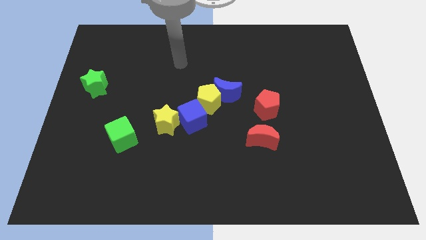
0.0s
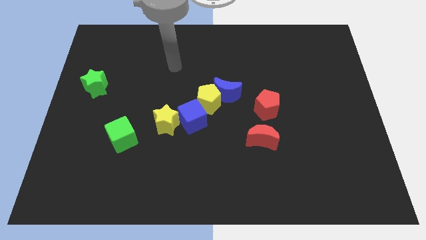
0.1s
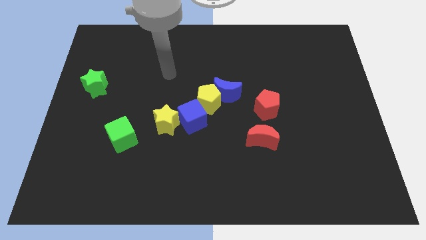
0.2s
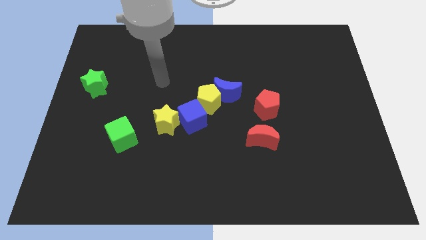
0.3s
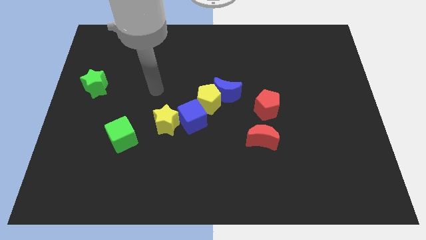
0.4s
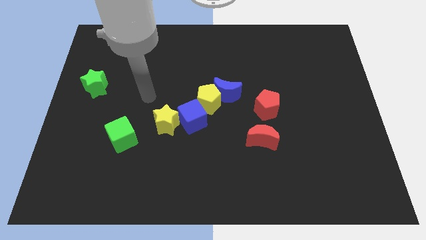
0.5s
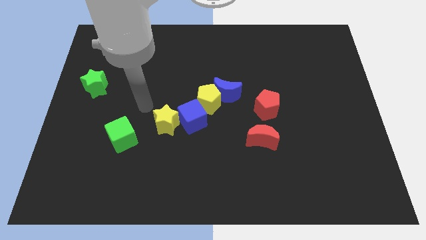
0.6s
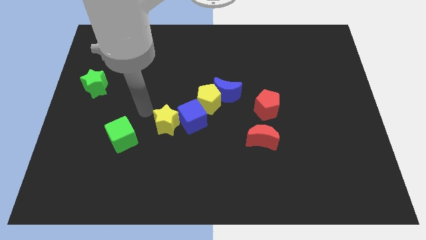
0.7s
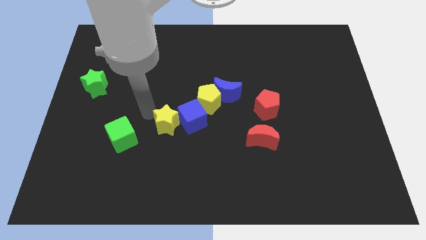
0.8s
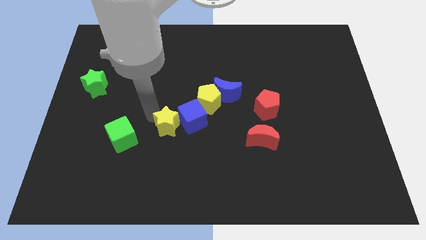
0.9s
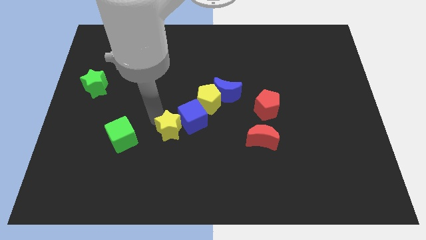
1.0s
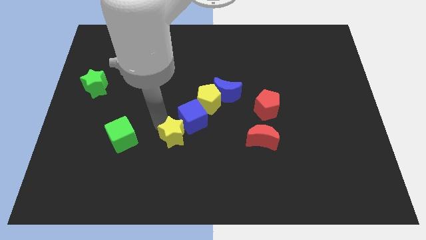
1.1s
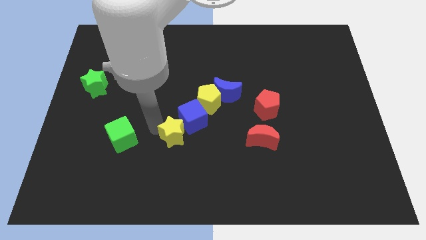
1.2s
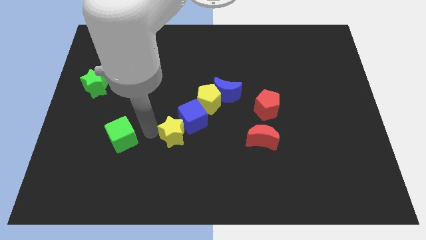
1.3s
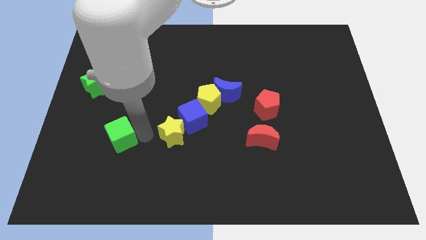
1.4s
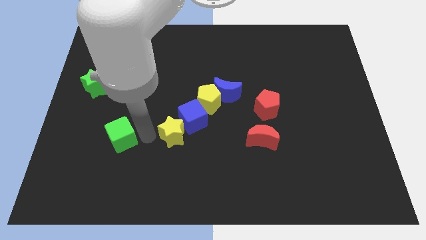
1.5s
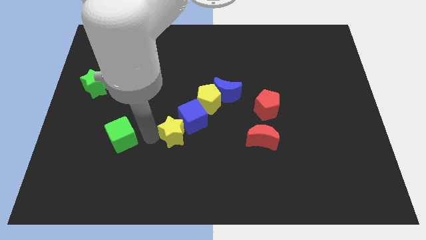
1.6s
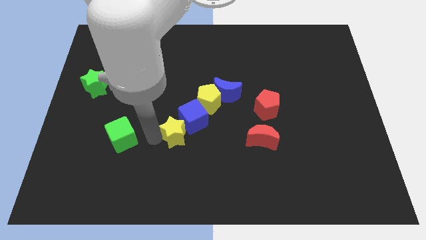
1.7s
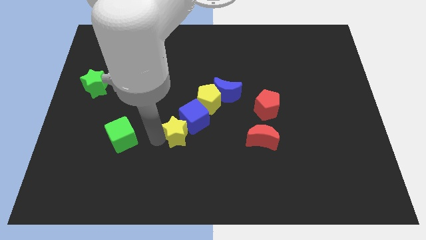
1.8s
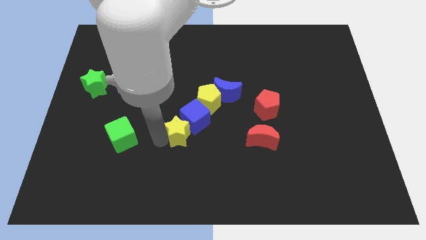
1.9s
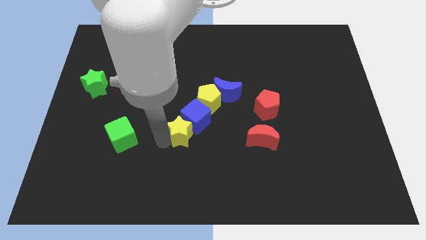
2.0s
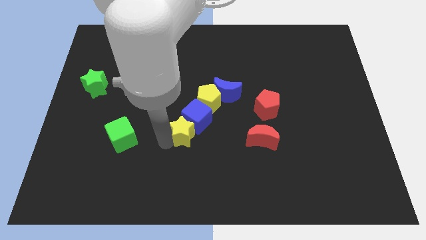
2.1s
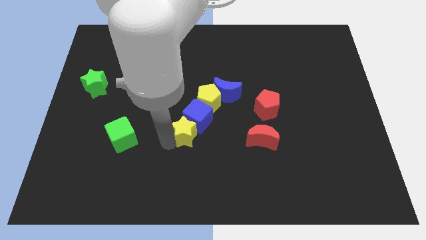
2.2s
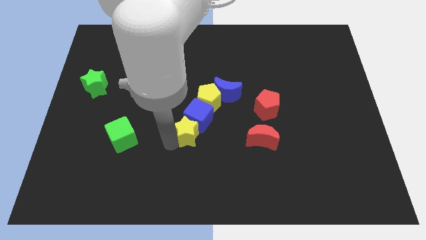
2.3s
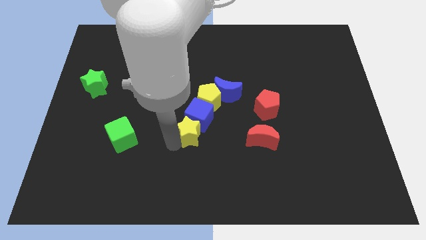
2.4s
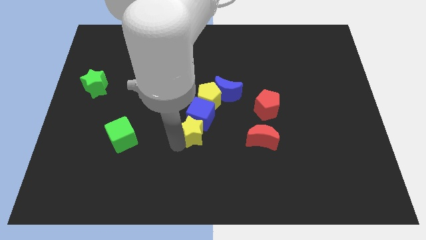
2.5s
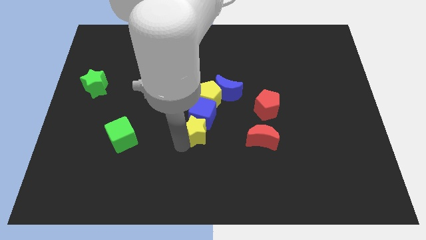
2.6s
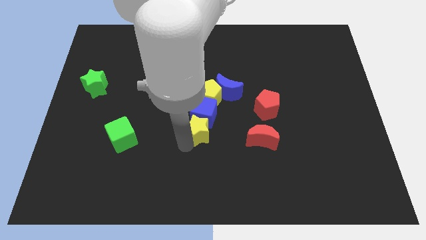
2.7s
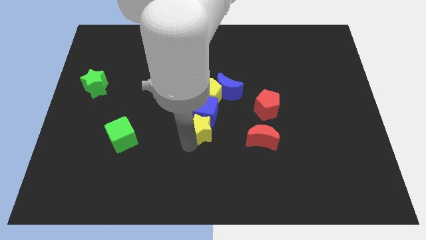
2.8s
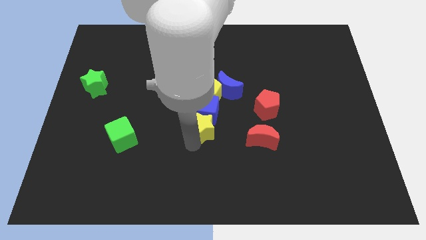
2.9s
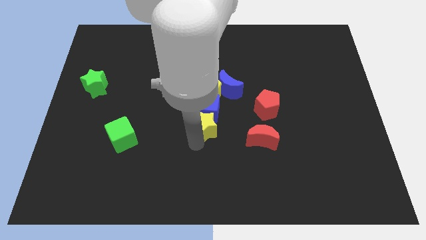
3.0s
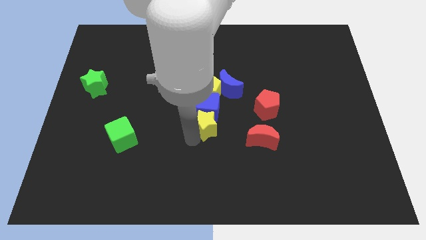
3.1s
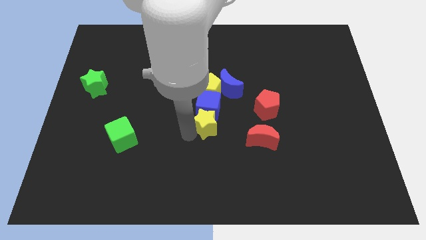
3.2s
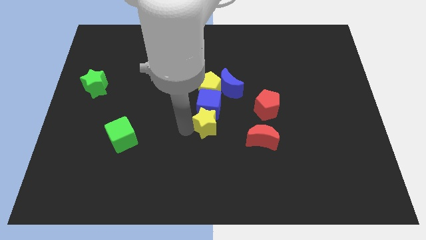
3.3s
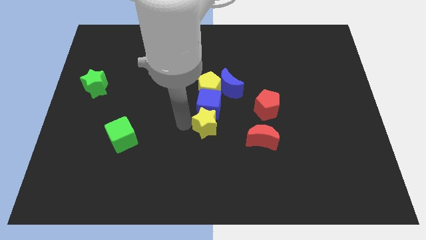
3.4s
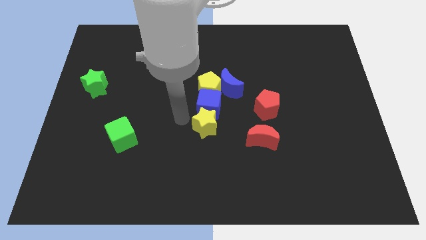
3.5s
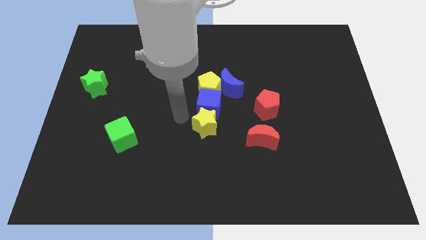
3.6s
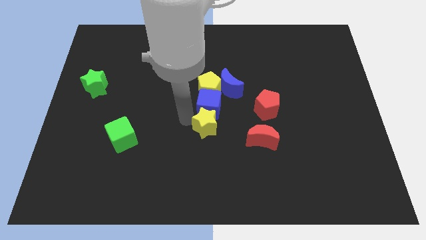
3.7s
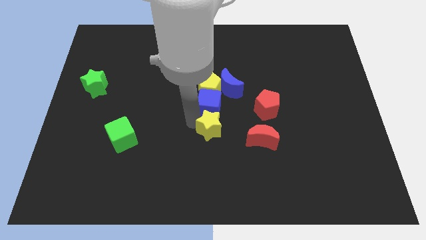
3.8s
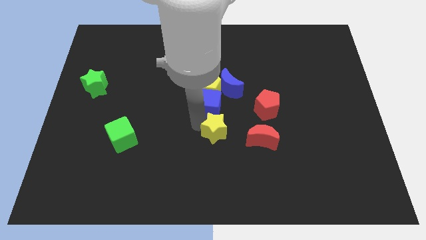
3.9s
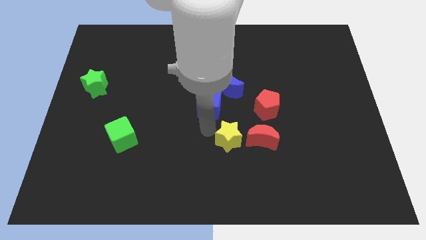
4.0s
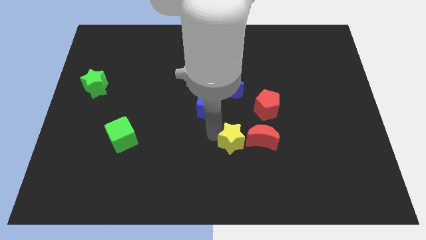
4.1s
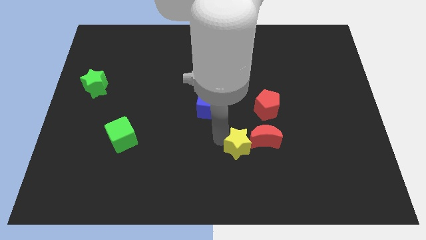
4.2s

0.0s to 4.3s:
move the yellow star next to the red moon

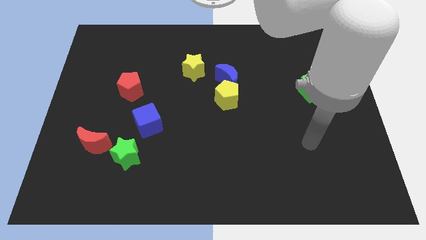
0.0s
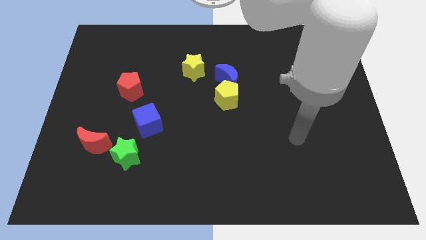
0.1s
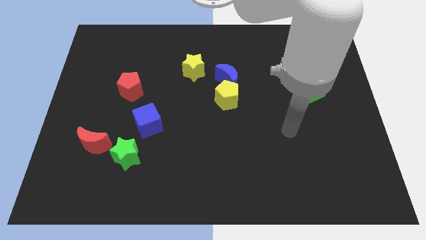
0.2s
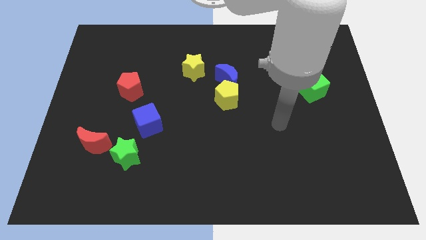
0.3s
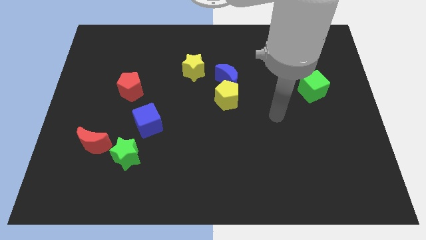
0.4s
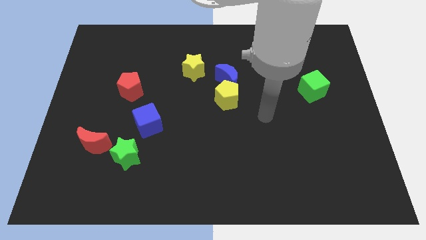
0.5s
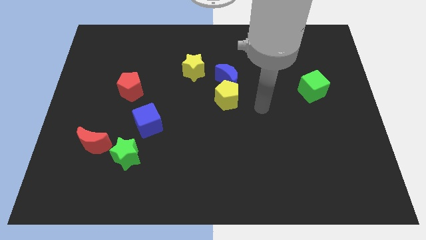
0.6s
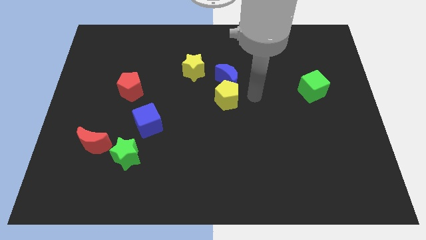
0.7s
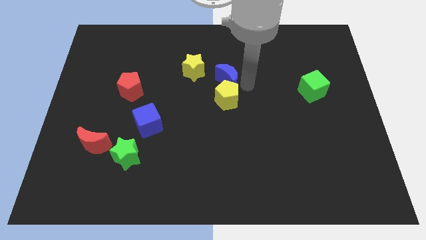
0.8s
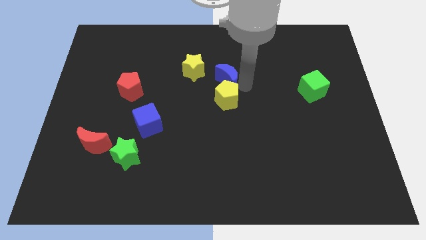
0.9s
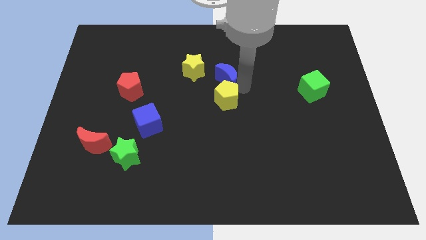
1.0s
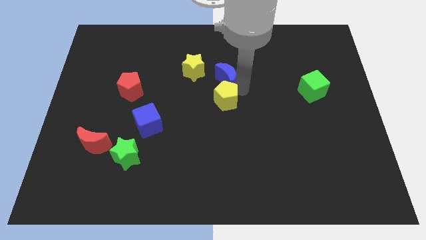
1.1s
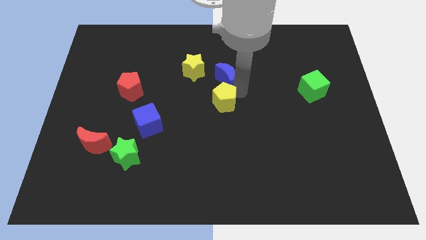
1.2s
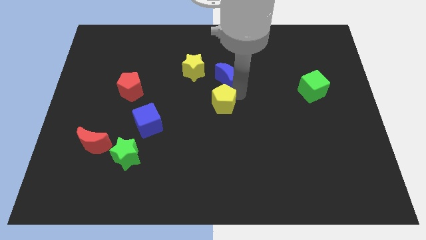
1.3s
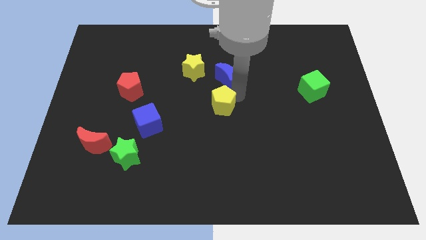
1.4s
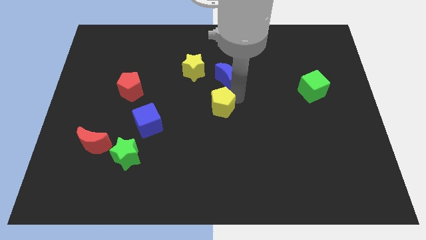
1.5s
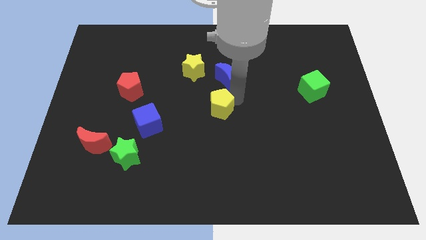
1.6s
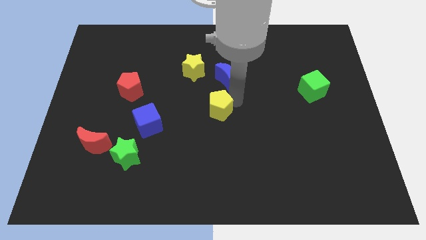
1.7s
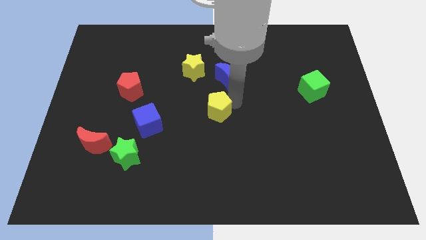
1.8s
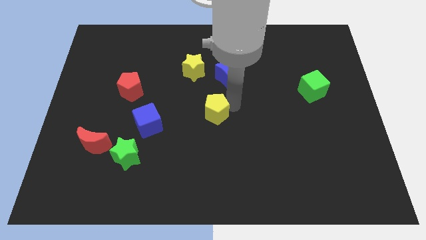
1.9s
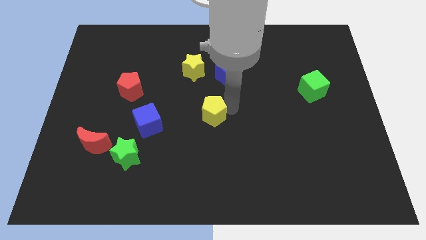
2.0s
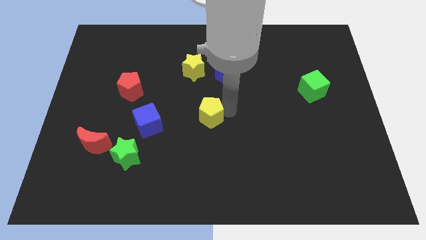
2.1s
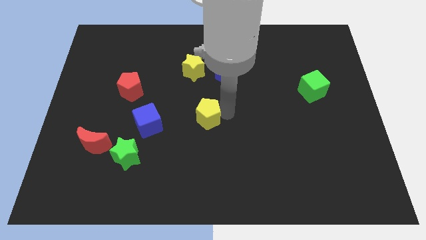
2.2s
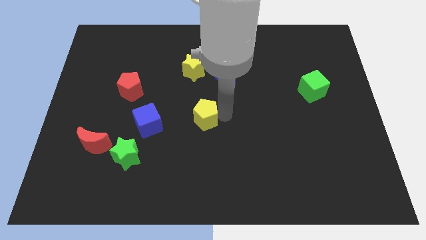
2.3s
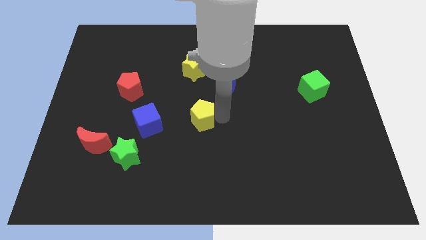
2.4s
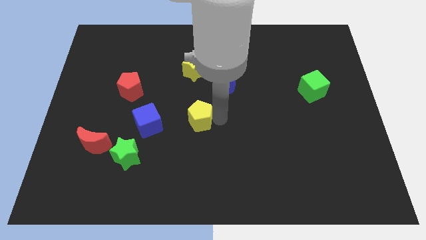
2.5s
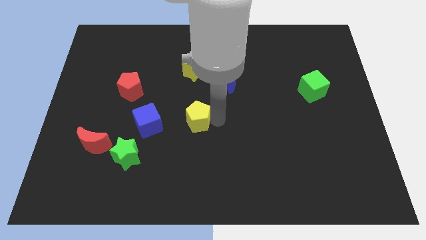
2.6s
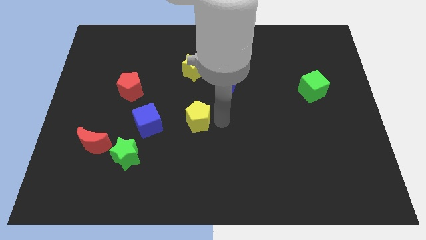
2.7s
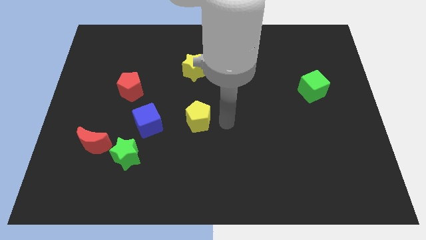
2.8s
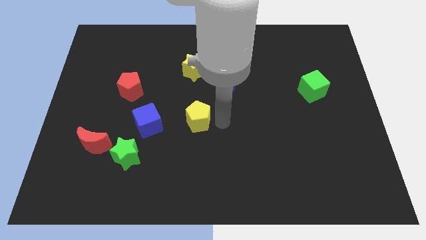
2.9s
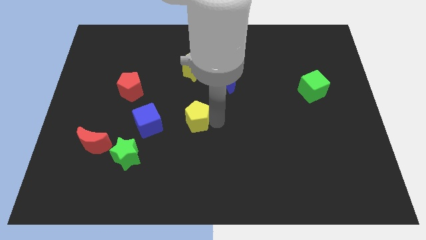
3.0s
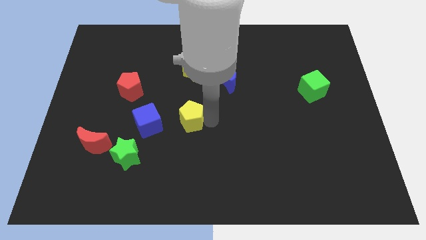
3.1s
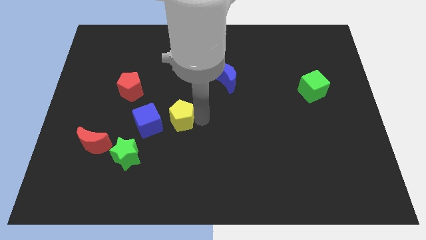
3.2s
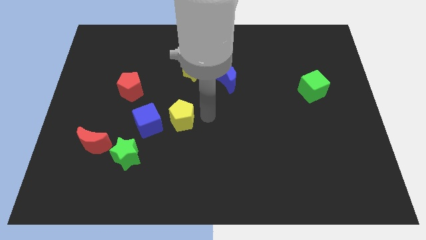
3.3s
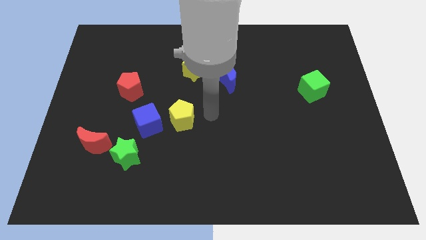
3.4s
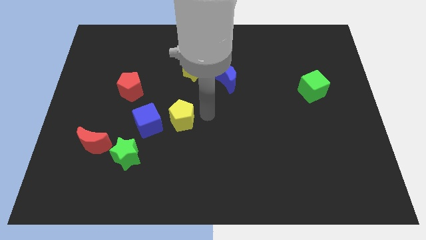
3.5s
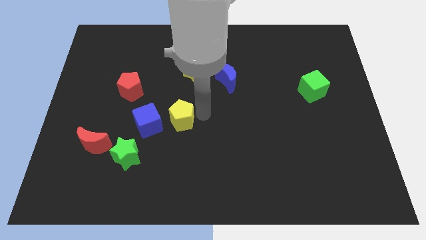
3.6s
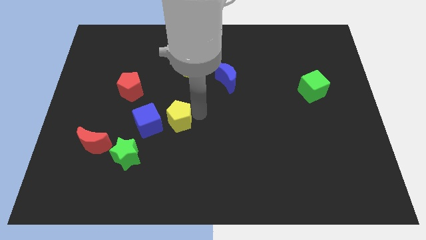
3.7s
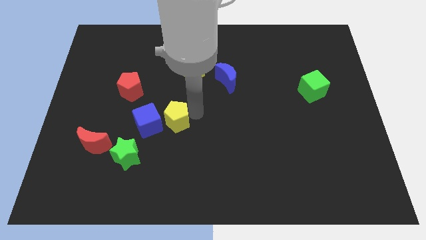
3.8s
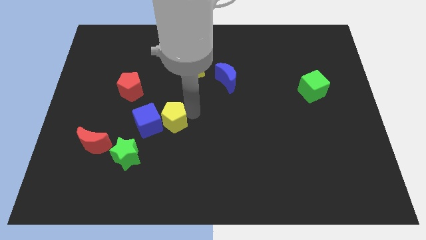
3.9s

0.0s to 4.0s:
move the yellow pentagon to the blue cube

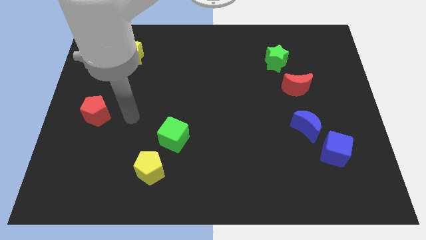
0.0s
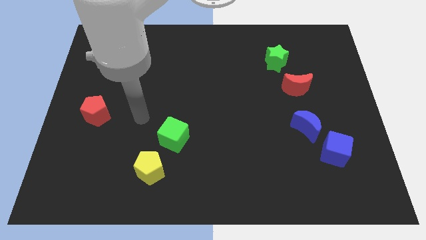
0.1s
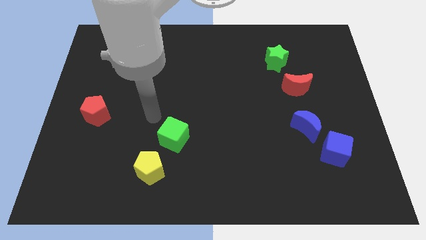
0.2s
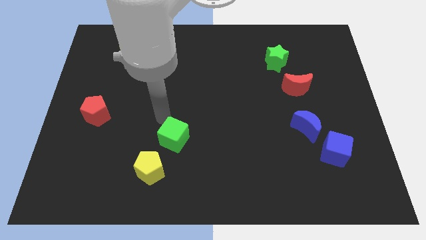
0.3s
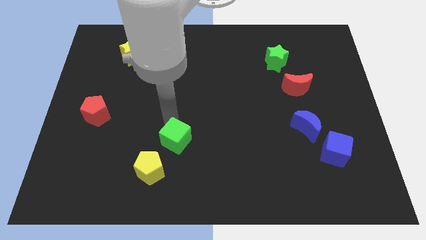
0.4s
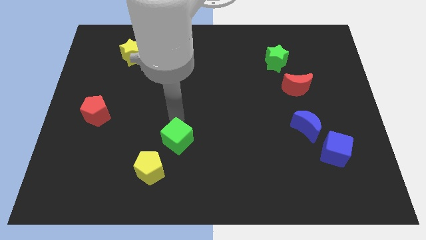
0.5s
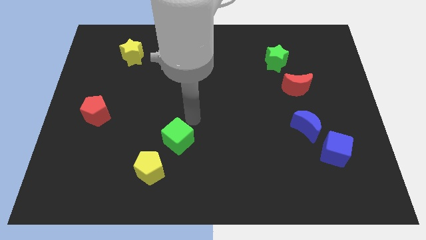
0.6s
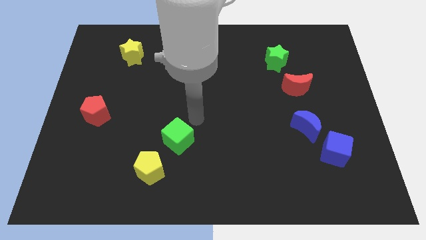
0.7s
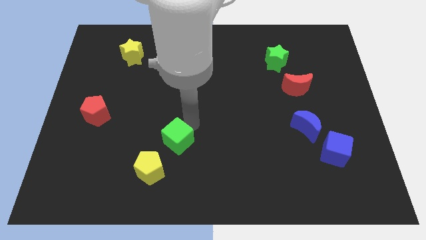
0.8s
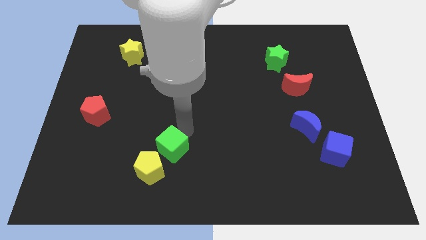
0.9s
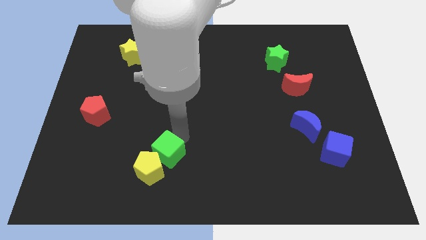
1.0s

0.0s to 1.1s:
put the green cube next to the yellow pentagon
